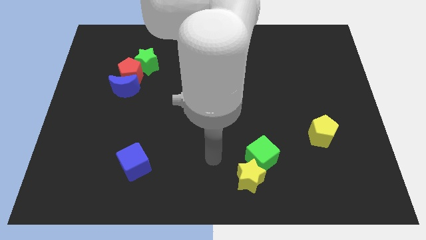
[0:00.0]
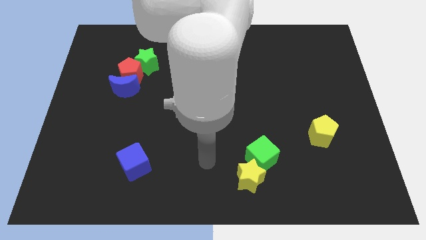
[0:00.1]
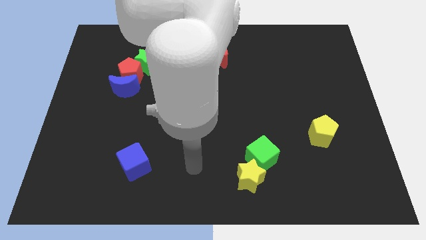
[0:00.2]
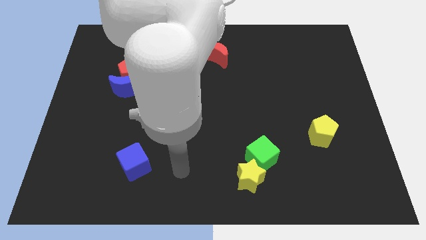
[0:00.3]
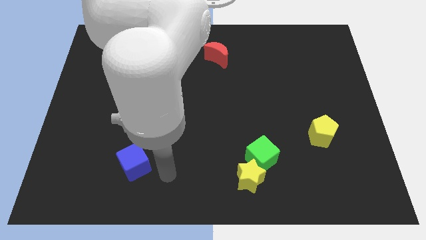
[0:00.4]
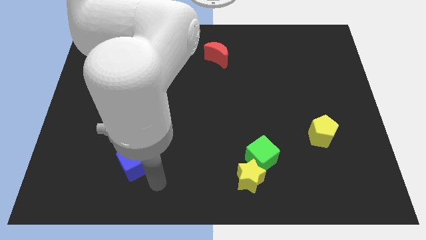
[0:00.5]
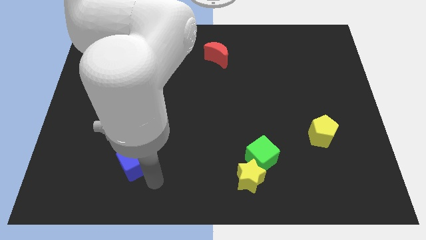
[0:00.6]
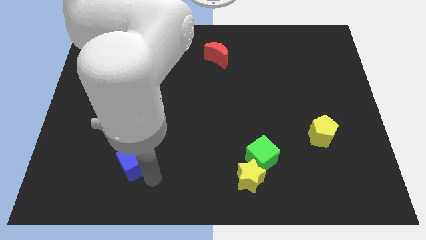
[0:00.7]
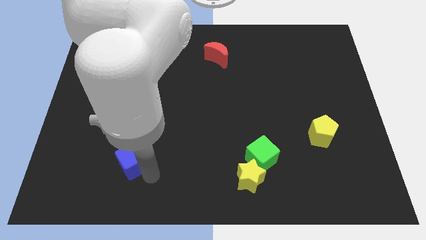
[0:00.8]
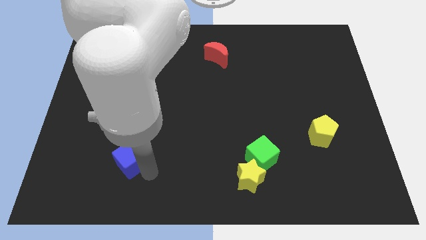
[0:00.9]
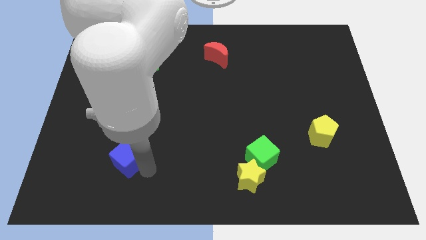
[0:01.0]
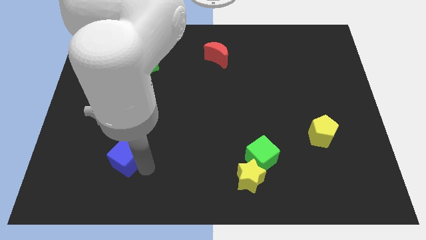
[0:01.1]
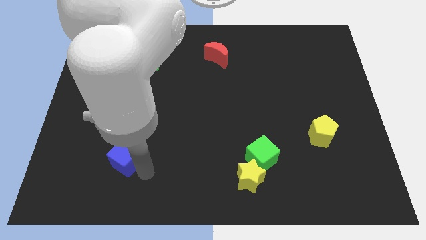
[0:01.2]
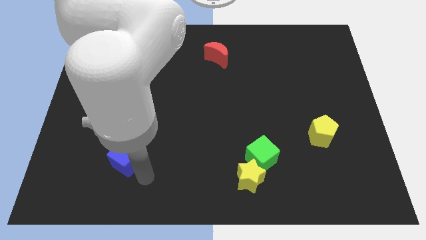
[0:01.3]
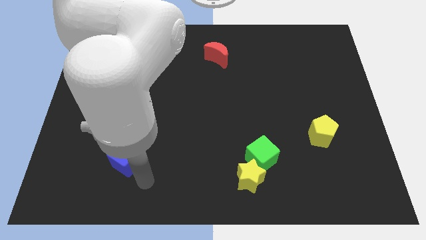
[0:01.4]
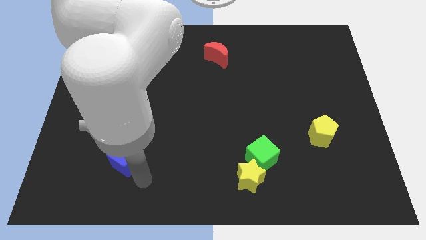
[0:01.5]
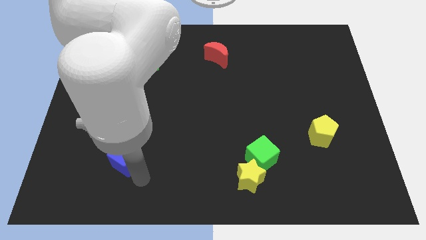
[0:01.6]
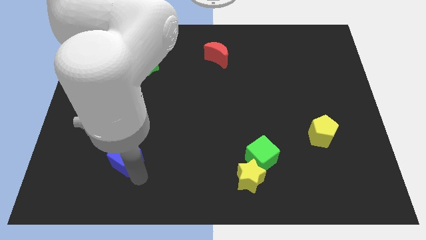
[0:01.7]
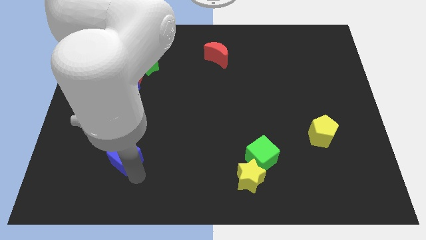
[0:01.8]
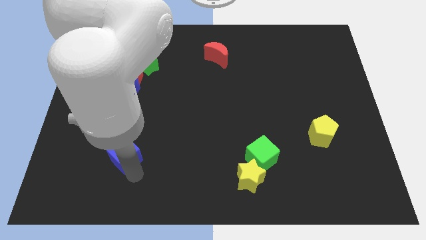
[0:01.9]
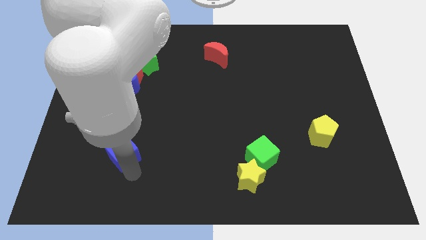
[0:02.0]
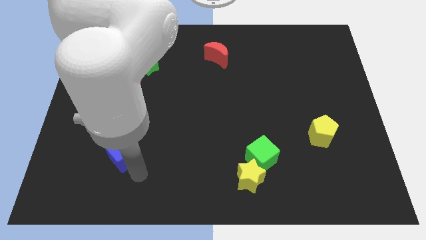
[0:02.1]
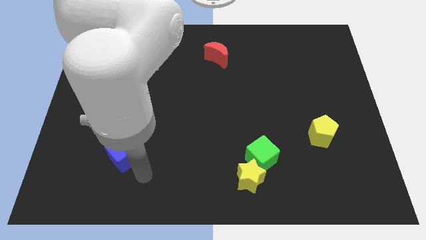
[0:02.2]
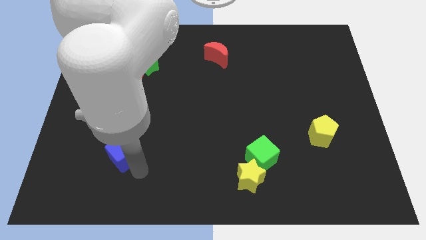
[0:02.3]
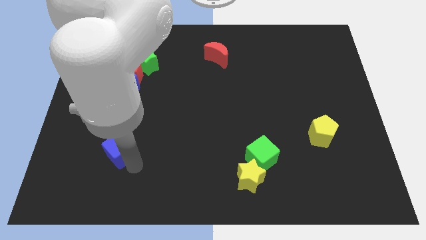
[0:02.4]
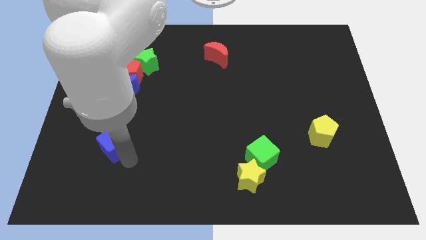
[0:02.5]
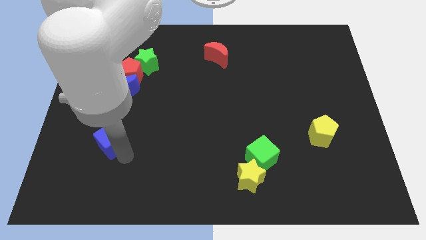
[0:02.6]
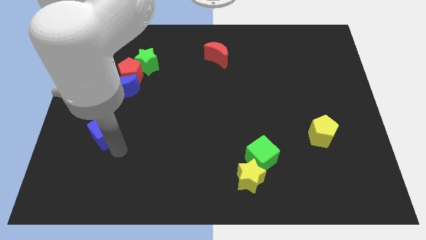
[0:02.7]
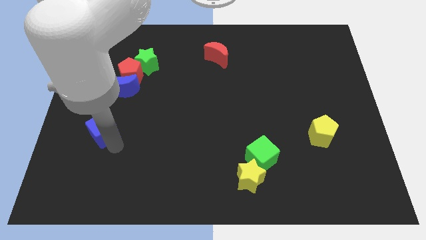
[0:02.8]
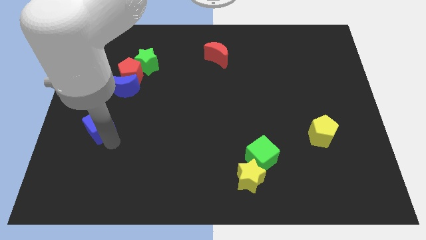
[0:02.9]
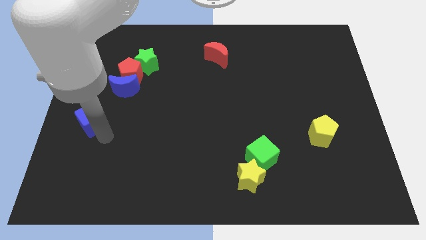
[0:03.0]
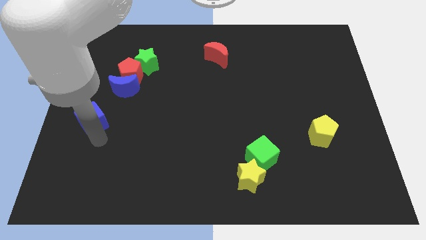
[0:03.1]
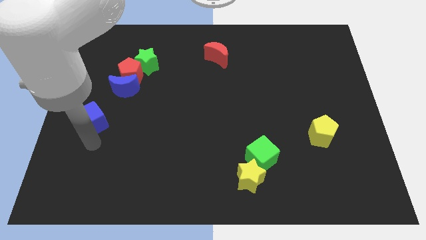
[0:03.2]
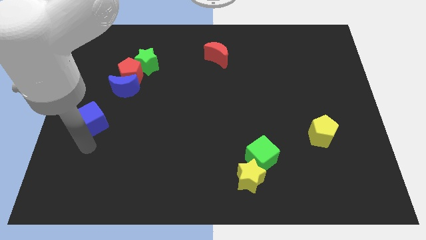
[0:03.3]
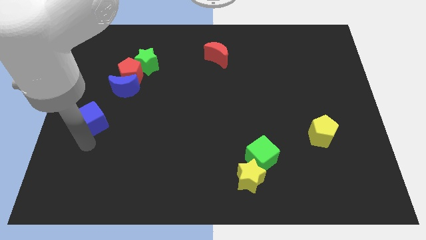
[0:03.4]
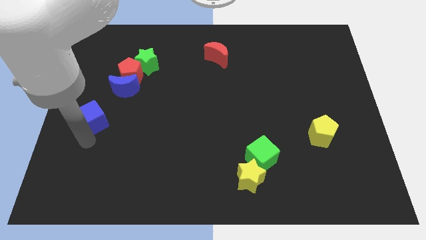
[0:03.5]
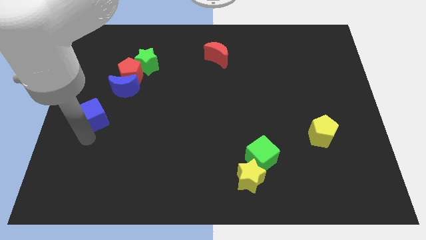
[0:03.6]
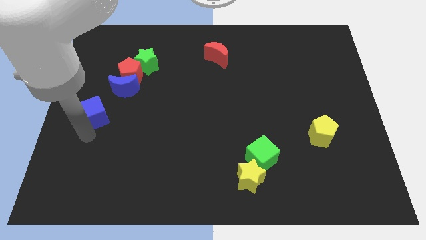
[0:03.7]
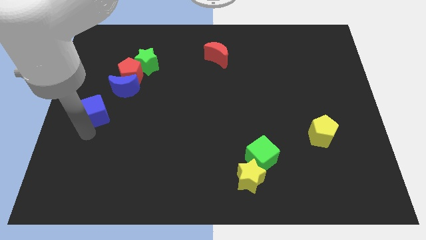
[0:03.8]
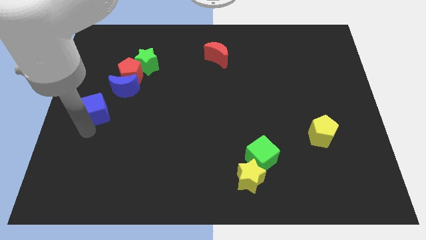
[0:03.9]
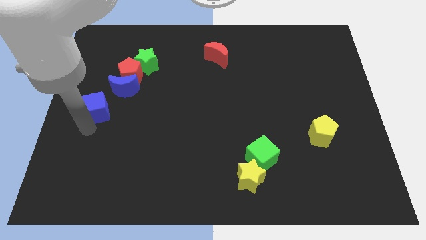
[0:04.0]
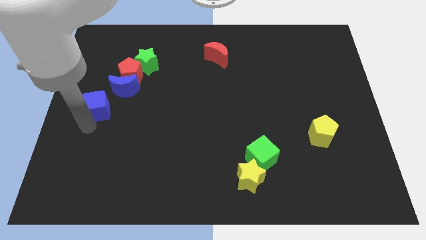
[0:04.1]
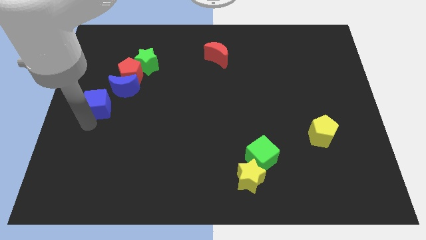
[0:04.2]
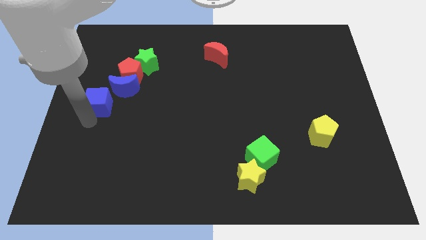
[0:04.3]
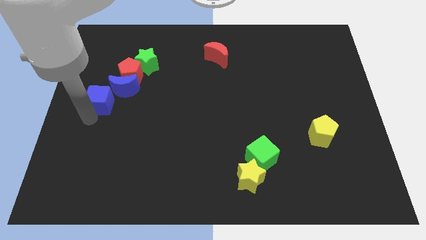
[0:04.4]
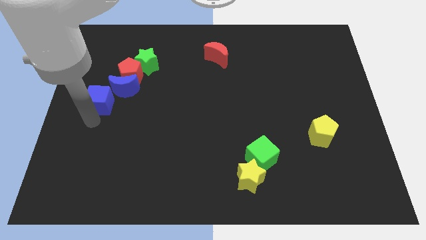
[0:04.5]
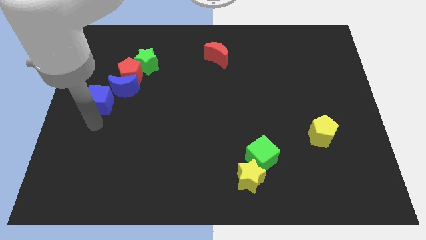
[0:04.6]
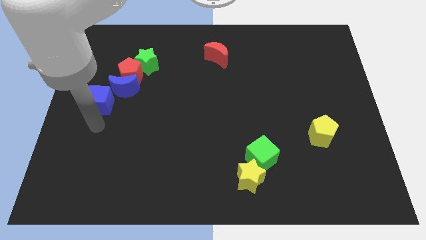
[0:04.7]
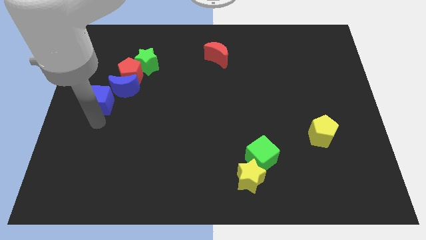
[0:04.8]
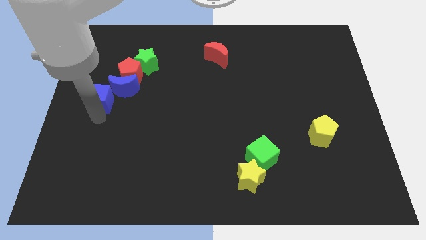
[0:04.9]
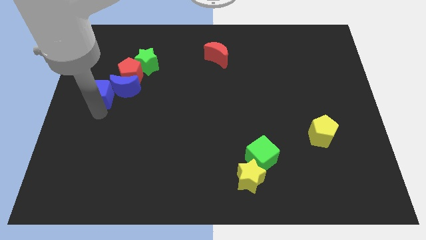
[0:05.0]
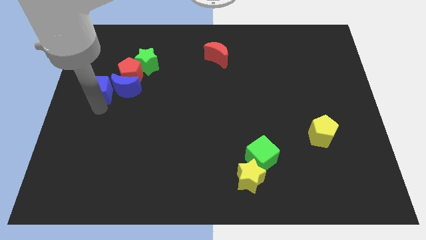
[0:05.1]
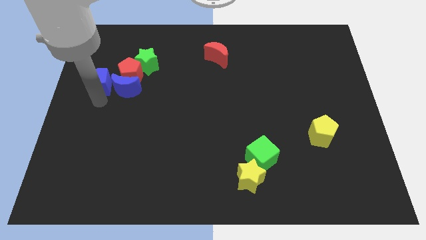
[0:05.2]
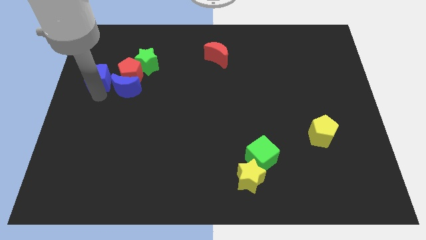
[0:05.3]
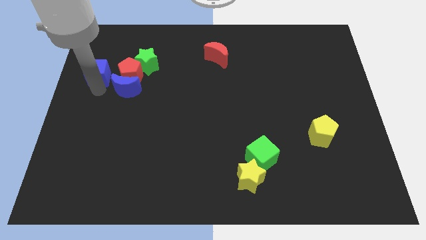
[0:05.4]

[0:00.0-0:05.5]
put the blue cube to the left of the green star

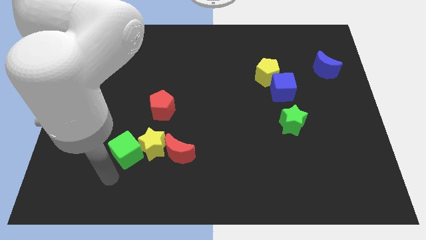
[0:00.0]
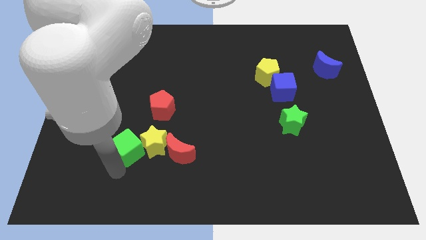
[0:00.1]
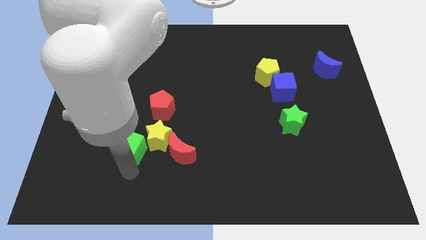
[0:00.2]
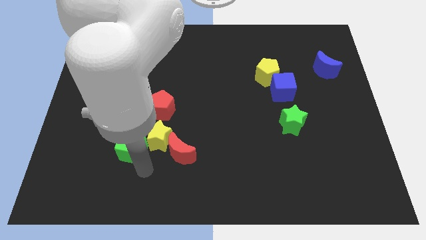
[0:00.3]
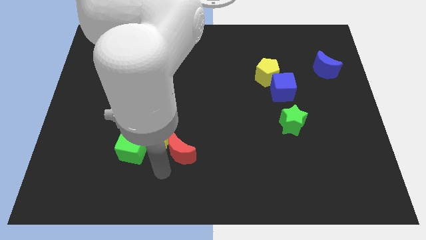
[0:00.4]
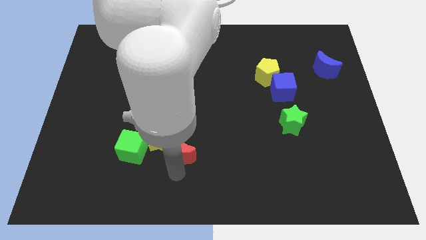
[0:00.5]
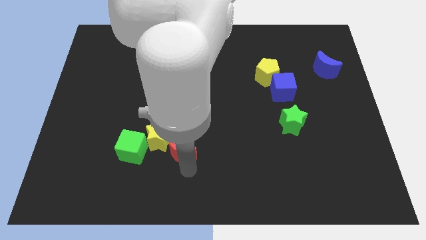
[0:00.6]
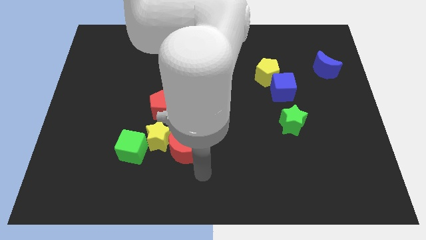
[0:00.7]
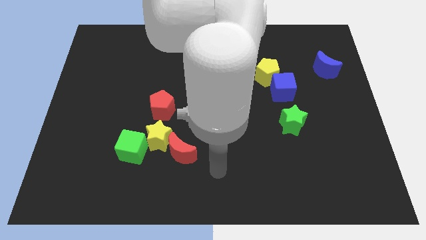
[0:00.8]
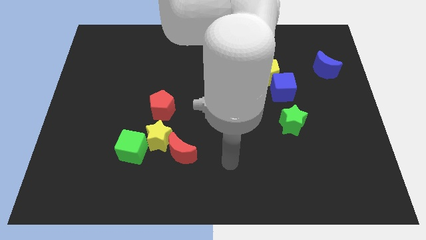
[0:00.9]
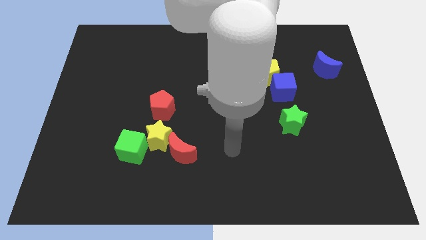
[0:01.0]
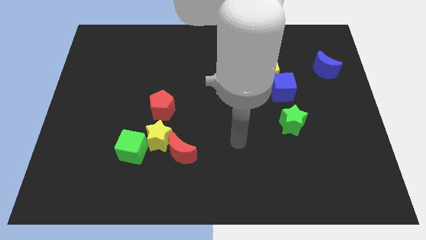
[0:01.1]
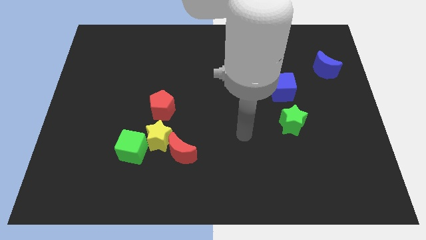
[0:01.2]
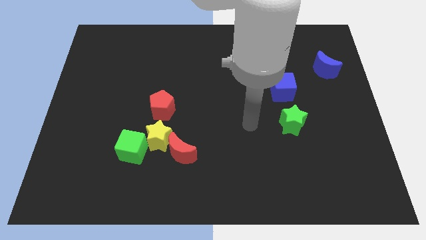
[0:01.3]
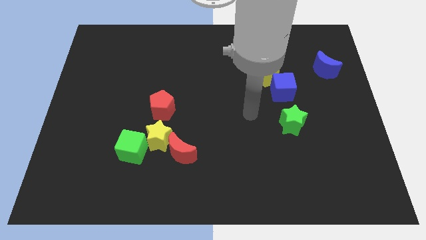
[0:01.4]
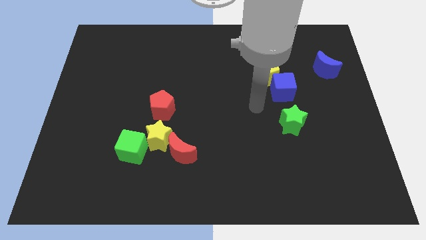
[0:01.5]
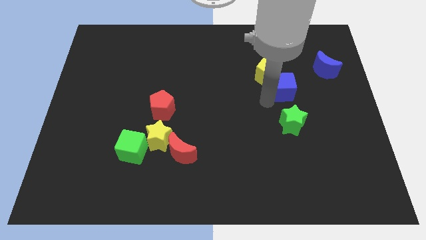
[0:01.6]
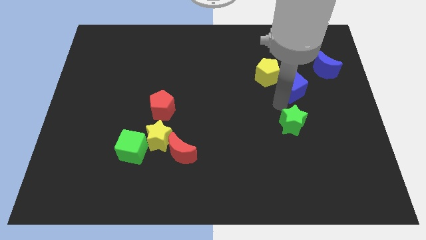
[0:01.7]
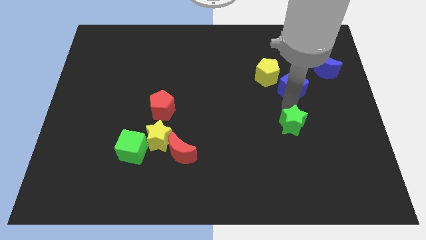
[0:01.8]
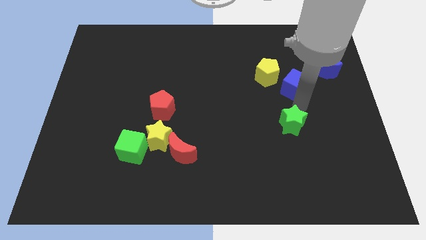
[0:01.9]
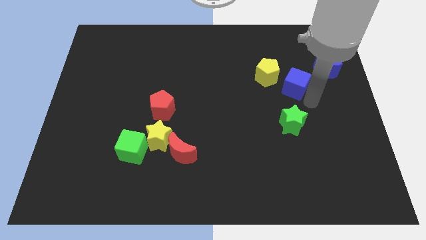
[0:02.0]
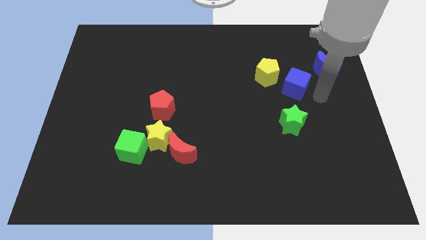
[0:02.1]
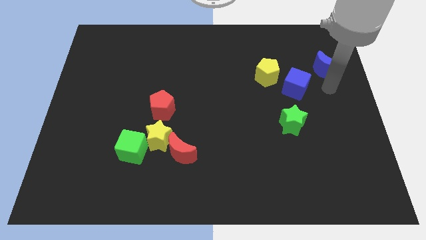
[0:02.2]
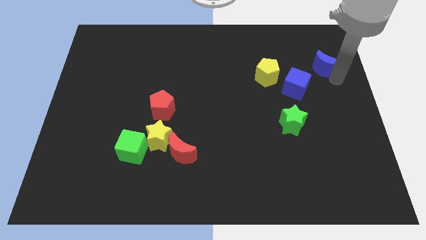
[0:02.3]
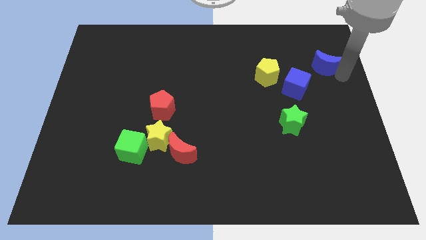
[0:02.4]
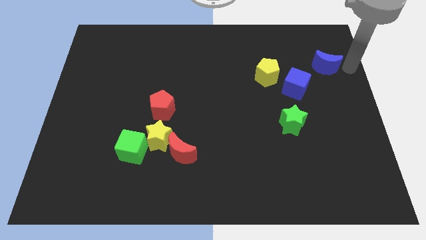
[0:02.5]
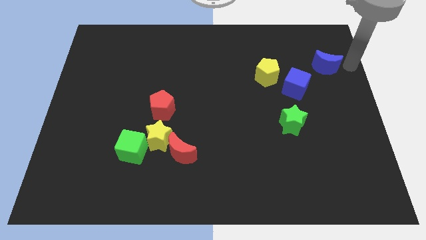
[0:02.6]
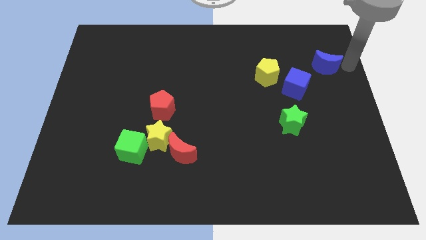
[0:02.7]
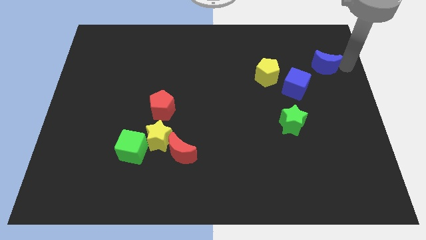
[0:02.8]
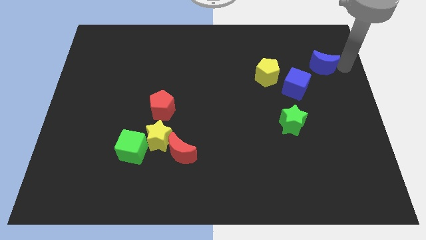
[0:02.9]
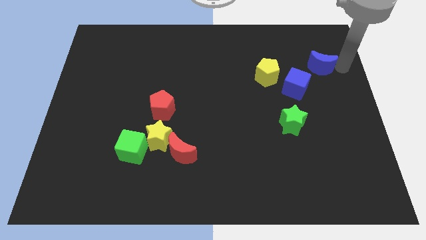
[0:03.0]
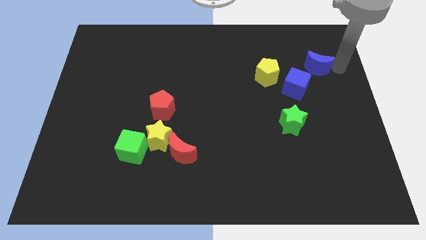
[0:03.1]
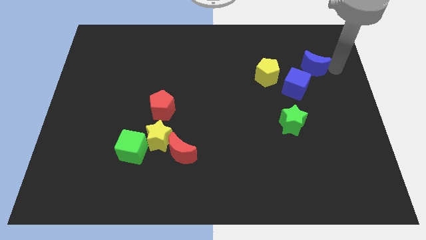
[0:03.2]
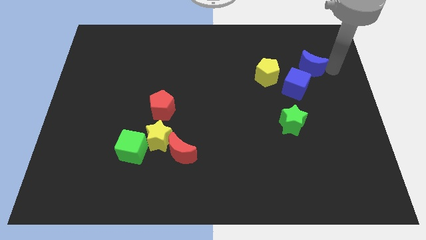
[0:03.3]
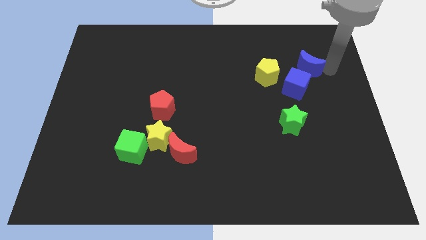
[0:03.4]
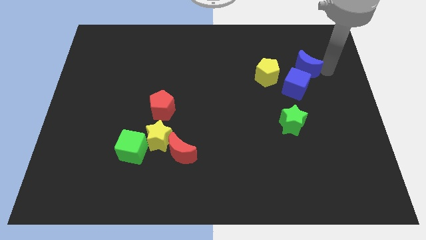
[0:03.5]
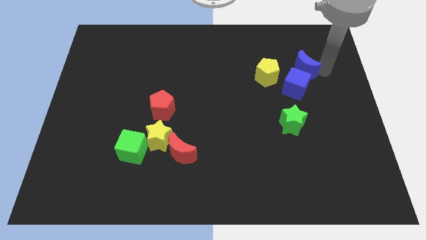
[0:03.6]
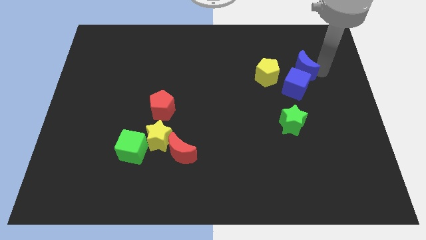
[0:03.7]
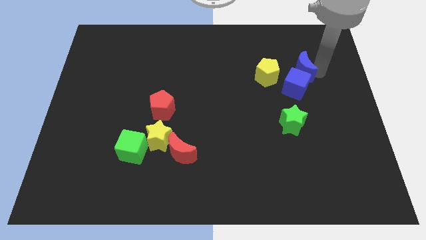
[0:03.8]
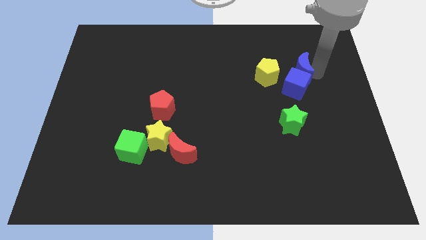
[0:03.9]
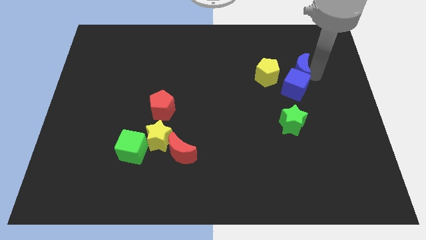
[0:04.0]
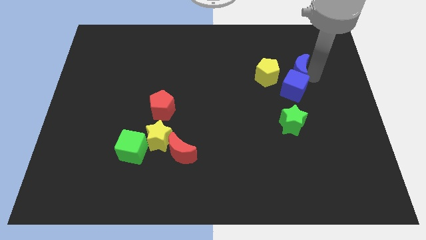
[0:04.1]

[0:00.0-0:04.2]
push the blue moon to the top right of the yellow pentagon
